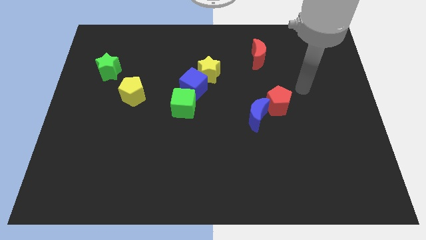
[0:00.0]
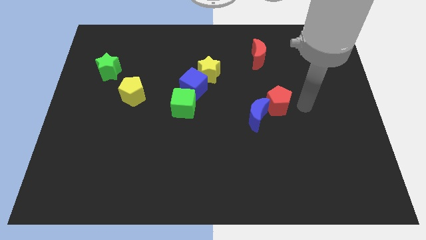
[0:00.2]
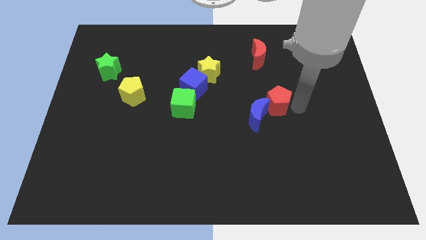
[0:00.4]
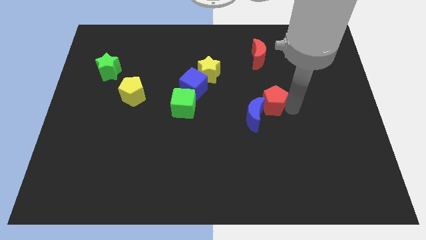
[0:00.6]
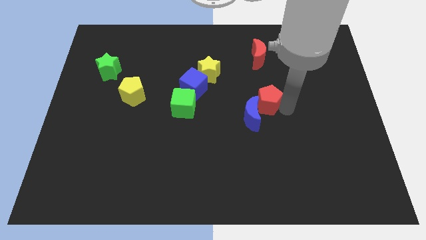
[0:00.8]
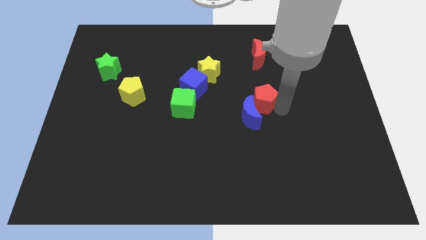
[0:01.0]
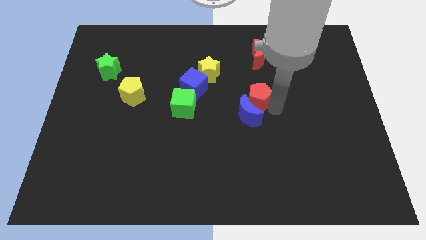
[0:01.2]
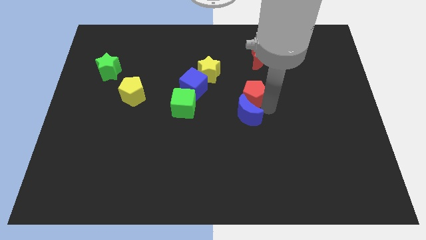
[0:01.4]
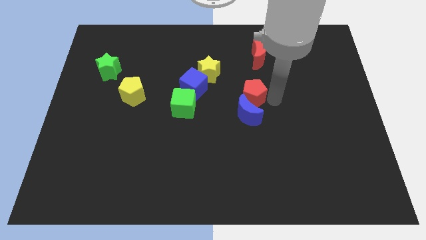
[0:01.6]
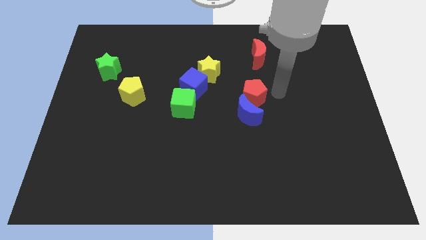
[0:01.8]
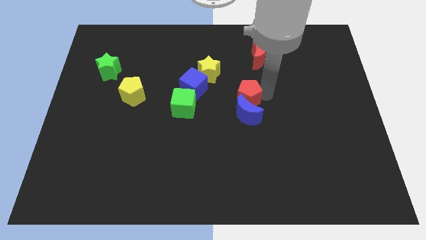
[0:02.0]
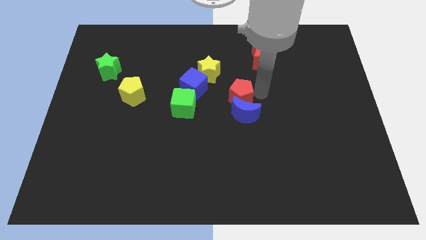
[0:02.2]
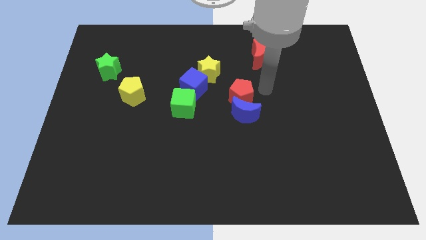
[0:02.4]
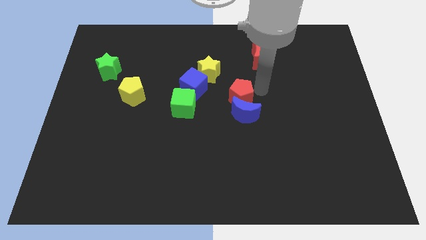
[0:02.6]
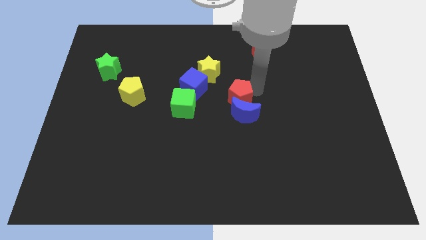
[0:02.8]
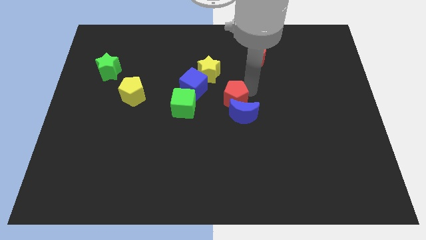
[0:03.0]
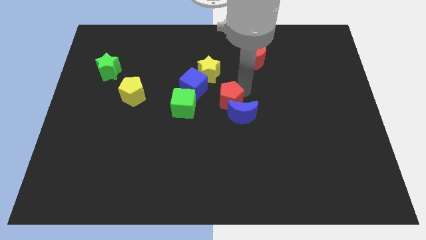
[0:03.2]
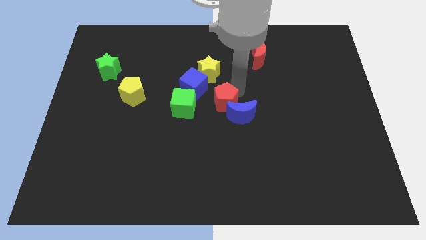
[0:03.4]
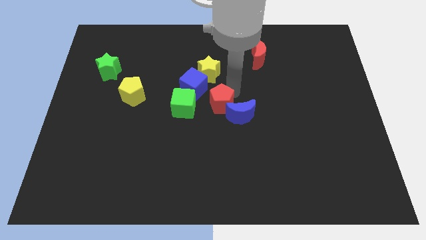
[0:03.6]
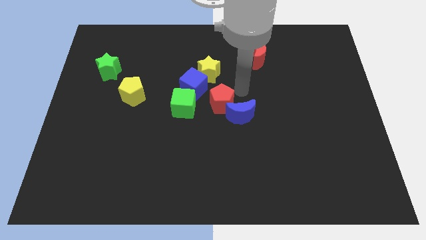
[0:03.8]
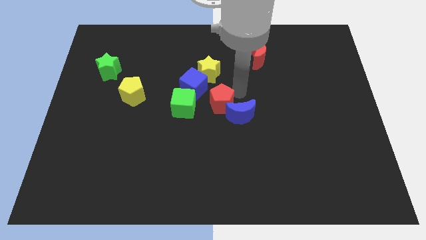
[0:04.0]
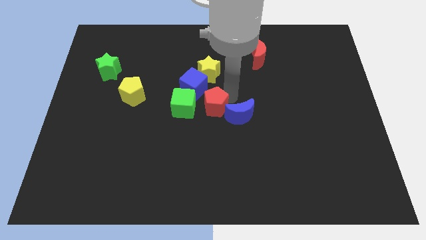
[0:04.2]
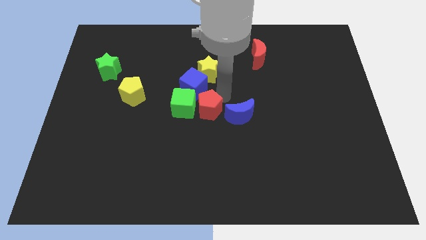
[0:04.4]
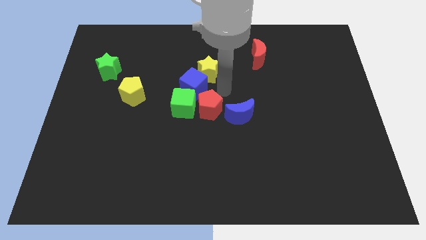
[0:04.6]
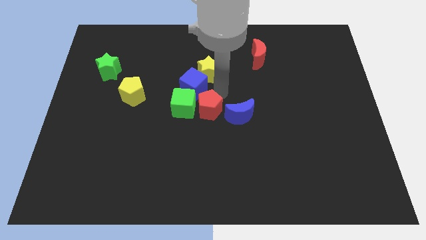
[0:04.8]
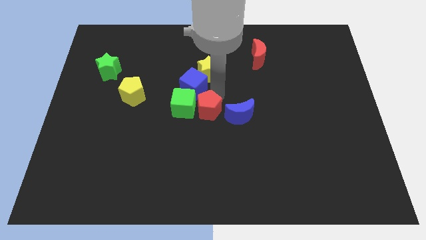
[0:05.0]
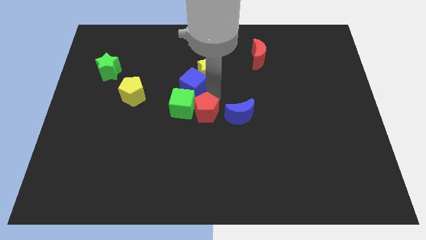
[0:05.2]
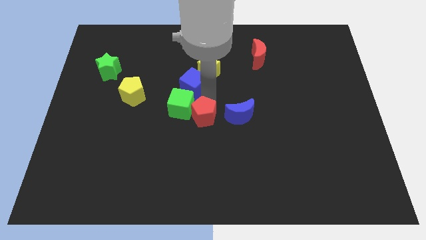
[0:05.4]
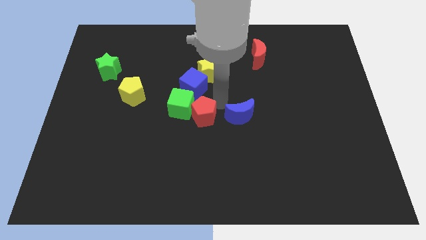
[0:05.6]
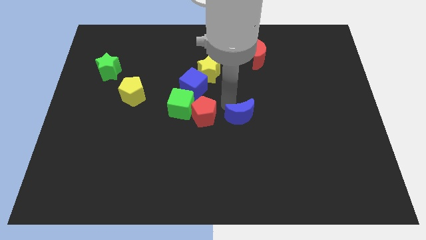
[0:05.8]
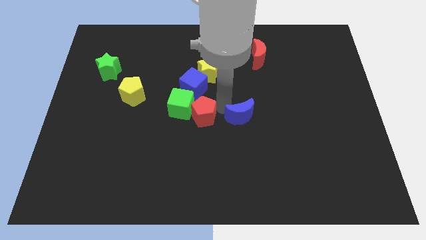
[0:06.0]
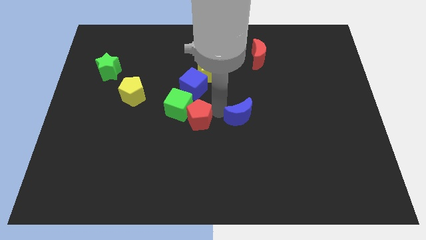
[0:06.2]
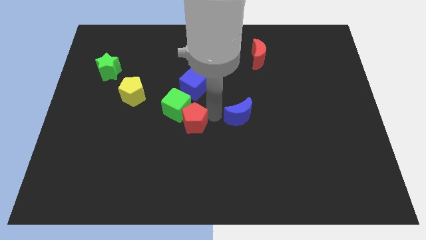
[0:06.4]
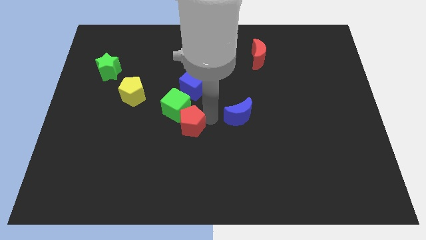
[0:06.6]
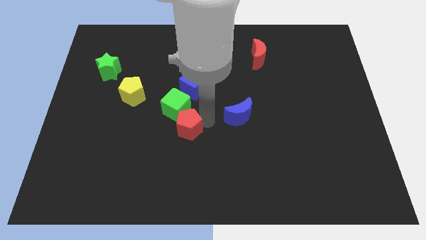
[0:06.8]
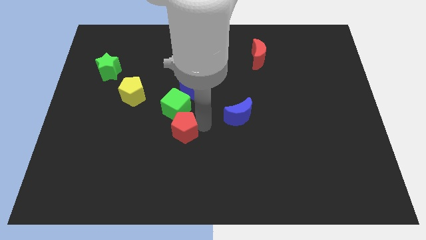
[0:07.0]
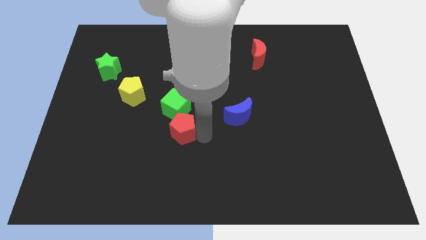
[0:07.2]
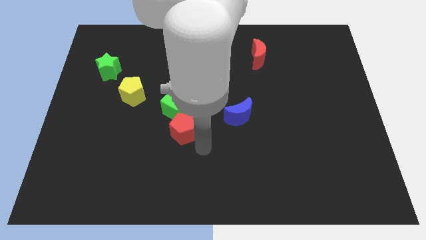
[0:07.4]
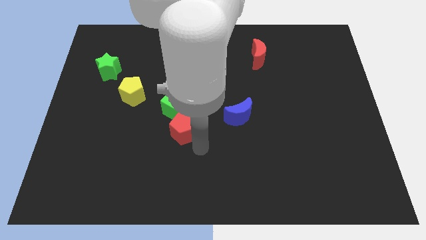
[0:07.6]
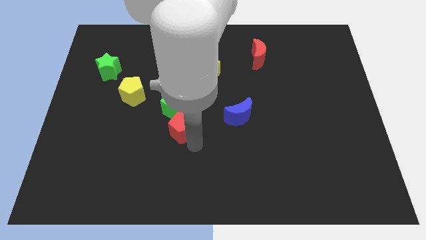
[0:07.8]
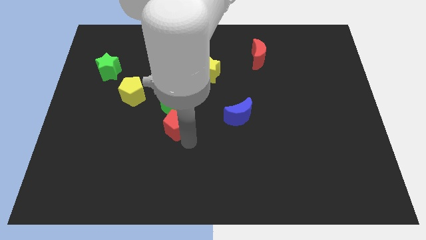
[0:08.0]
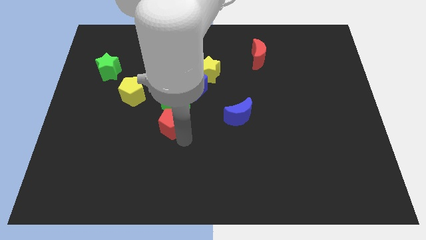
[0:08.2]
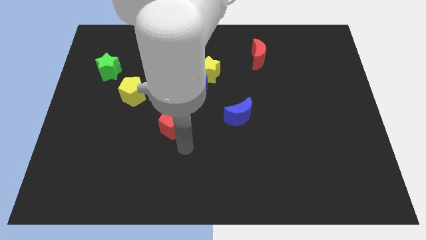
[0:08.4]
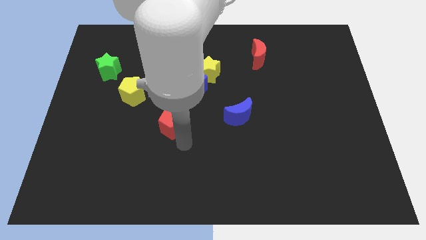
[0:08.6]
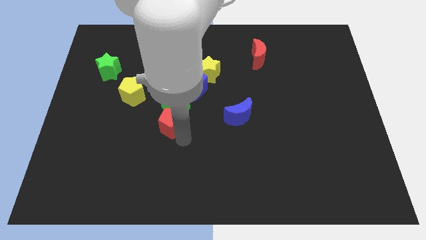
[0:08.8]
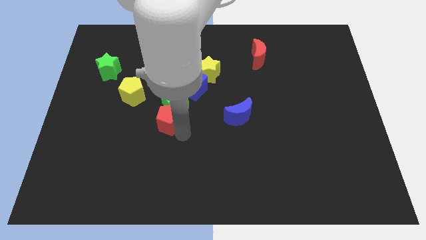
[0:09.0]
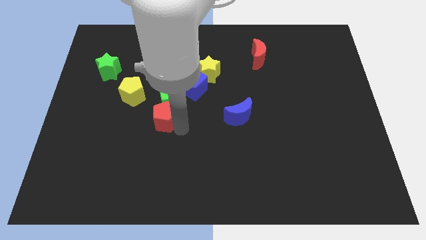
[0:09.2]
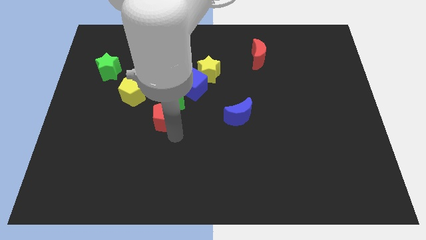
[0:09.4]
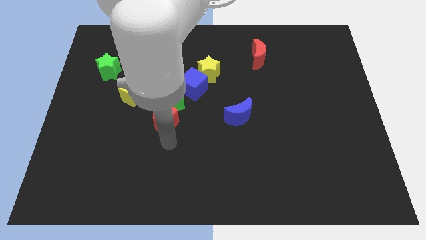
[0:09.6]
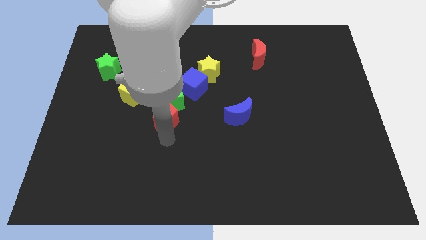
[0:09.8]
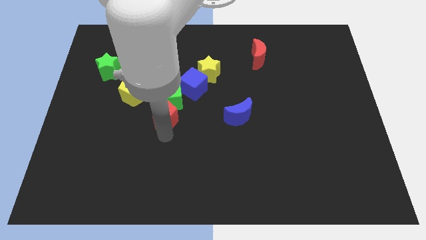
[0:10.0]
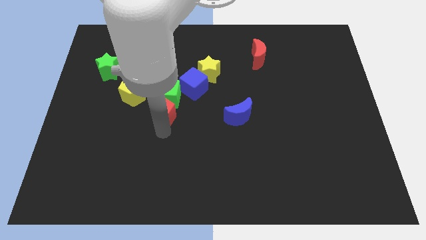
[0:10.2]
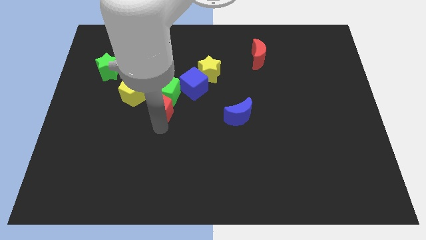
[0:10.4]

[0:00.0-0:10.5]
push the red pentagon to the right of the yellow pentagon

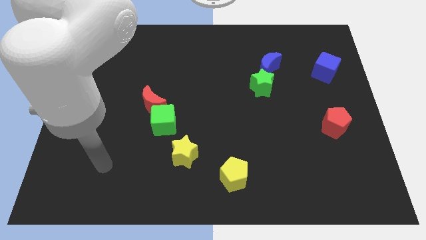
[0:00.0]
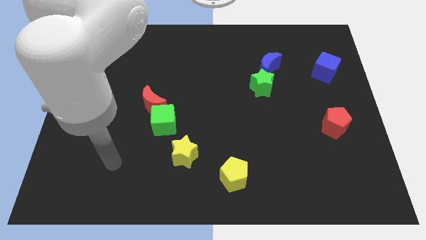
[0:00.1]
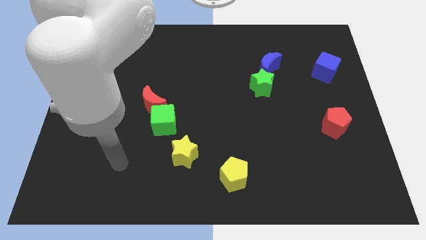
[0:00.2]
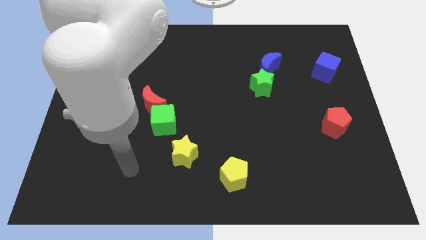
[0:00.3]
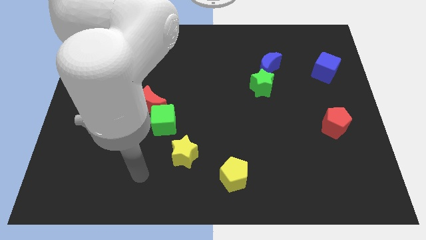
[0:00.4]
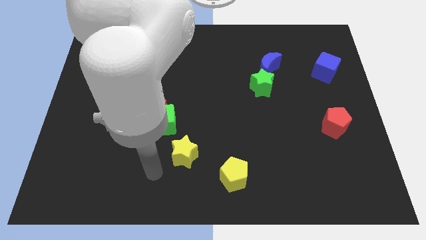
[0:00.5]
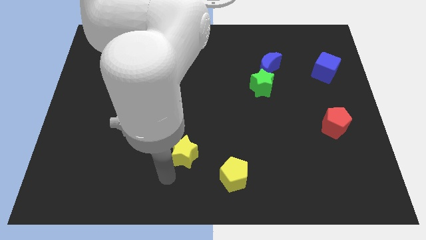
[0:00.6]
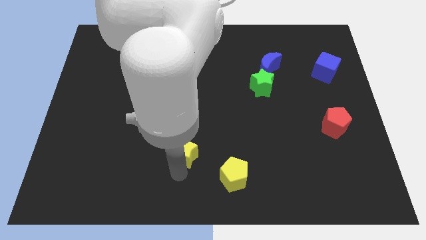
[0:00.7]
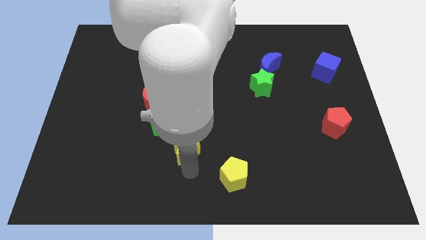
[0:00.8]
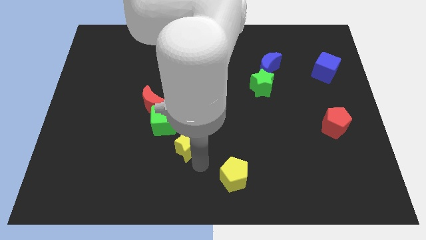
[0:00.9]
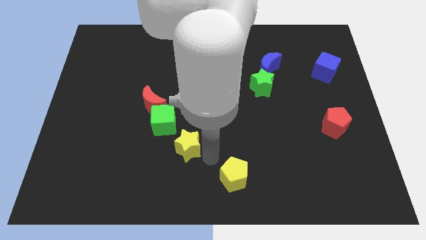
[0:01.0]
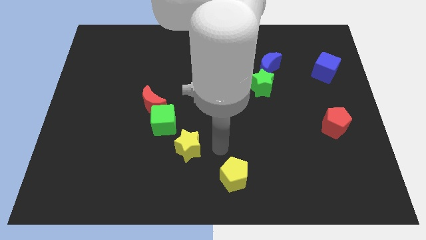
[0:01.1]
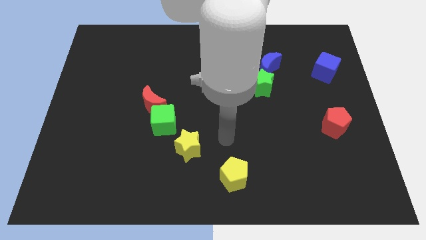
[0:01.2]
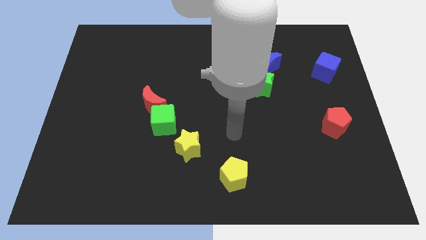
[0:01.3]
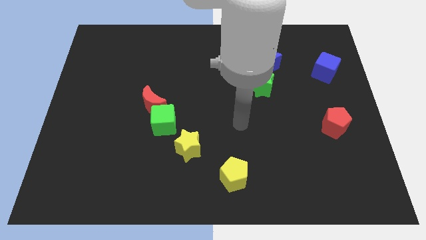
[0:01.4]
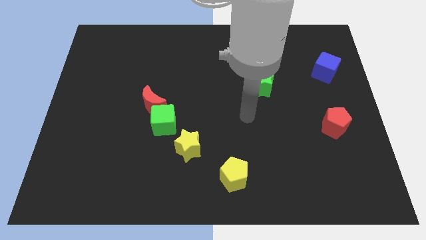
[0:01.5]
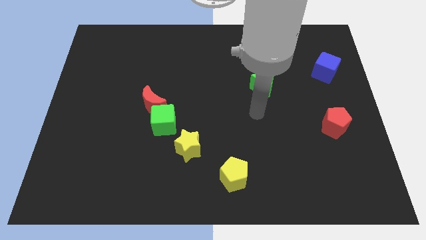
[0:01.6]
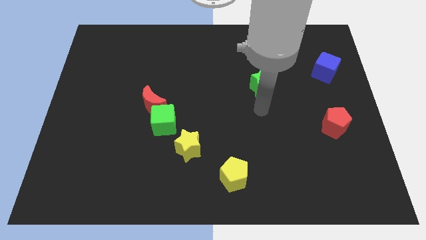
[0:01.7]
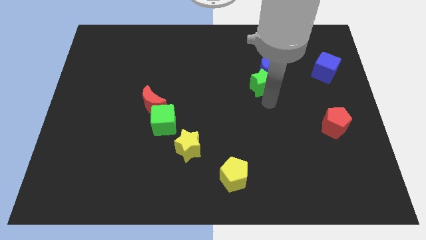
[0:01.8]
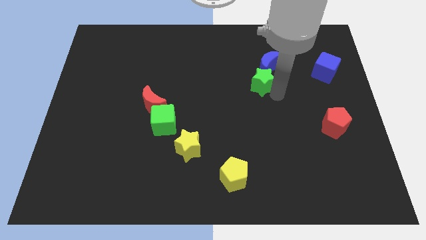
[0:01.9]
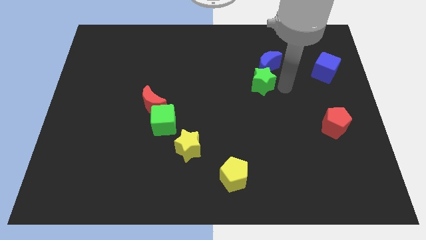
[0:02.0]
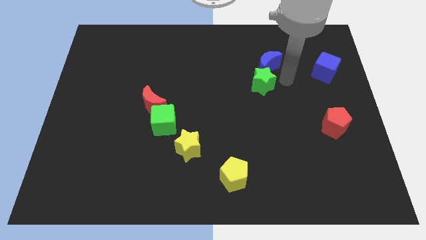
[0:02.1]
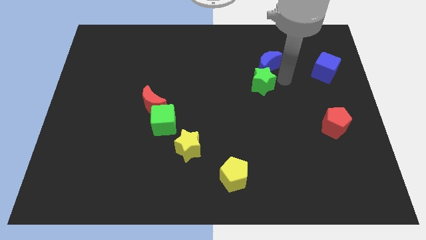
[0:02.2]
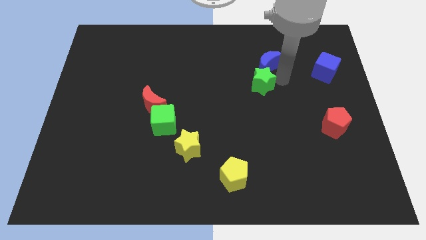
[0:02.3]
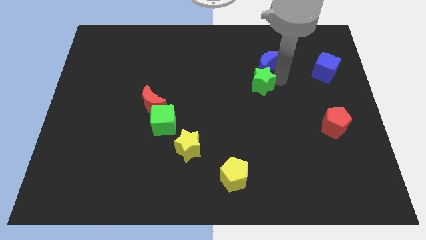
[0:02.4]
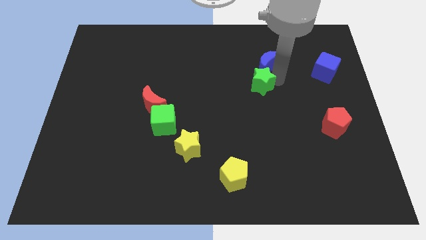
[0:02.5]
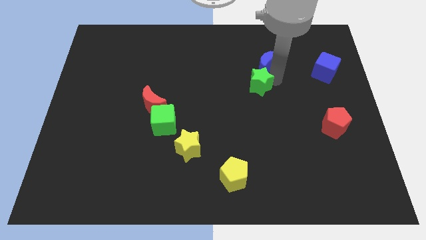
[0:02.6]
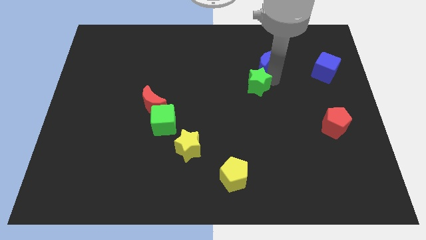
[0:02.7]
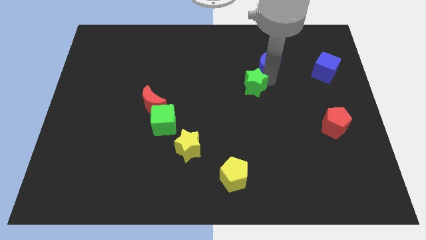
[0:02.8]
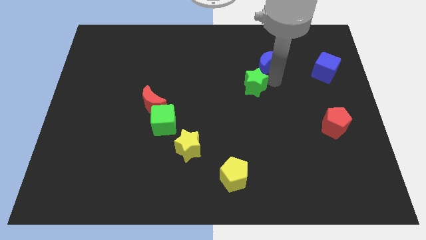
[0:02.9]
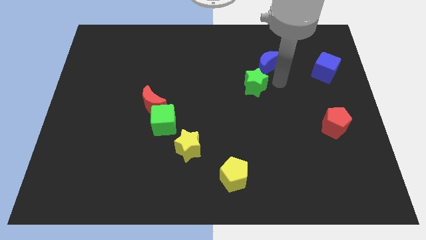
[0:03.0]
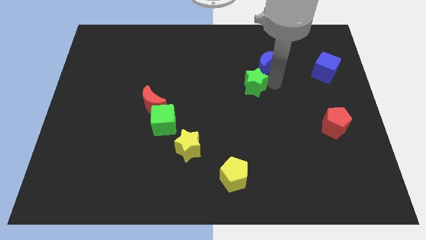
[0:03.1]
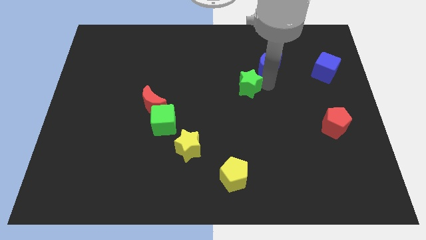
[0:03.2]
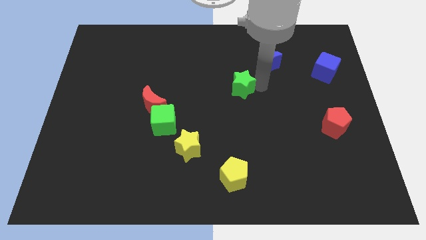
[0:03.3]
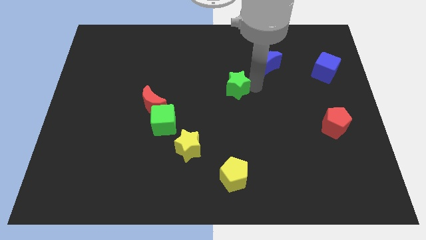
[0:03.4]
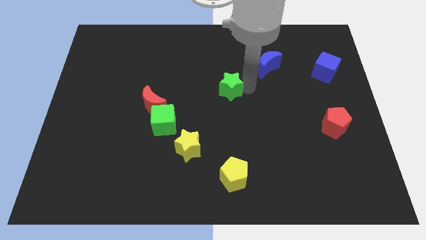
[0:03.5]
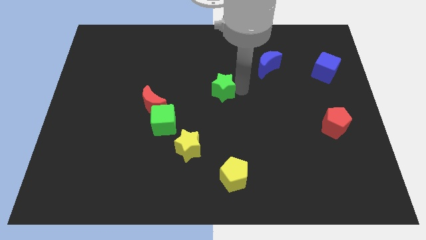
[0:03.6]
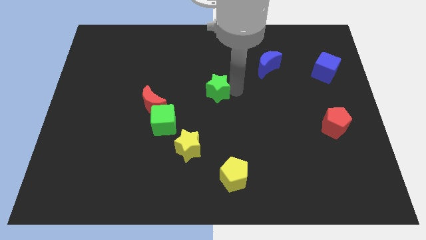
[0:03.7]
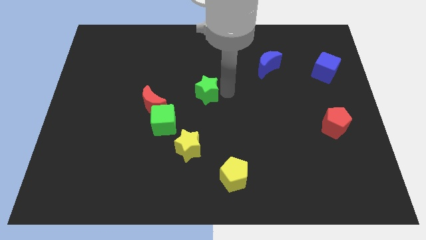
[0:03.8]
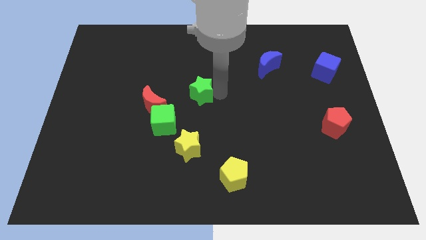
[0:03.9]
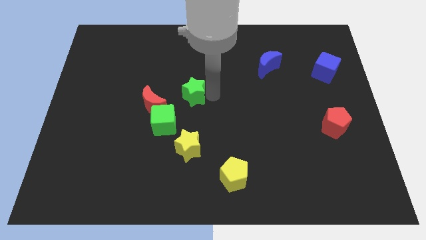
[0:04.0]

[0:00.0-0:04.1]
move the green star diagonally up and to the right of the red moon
